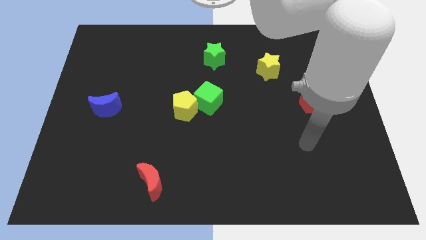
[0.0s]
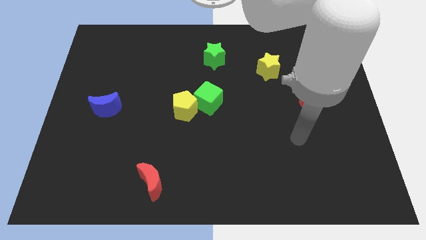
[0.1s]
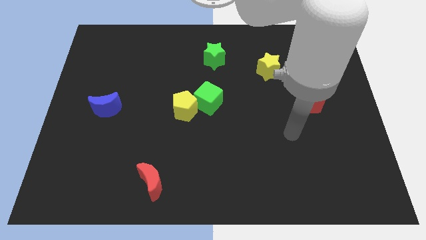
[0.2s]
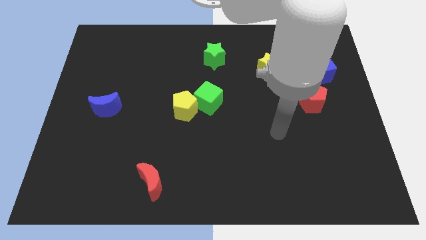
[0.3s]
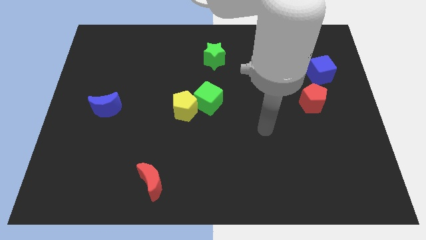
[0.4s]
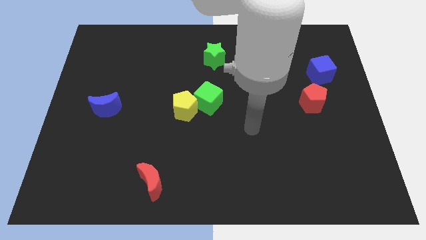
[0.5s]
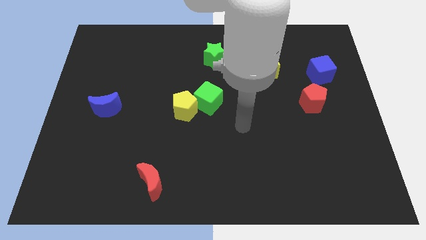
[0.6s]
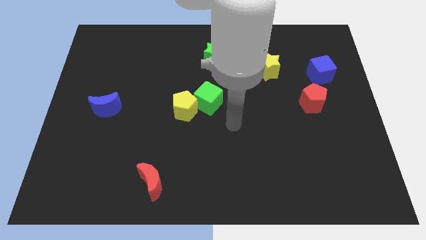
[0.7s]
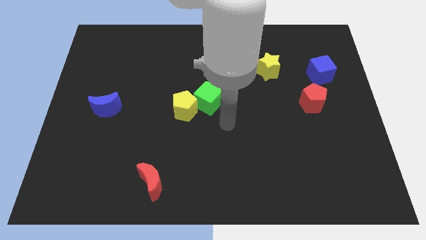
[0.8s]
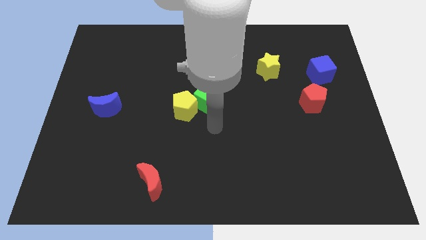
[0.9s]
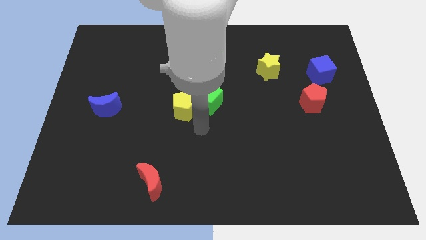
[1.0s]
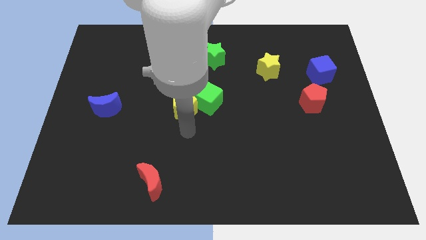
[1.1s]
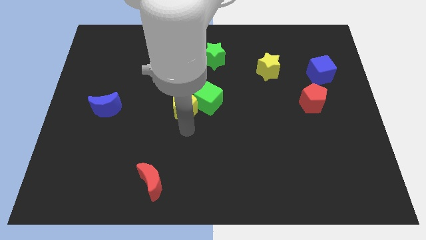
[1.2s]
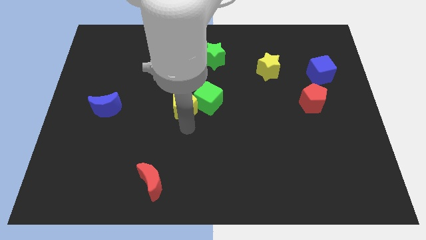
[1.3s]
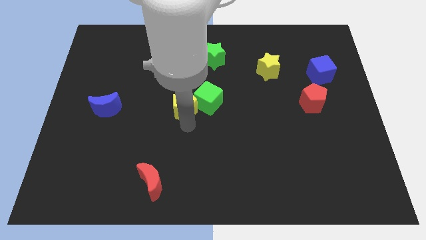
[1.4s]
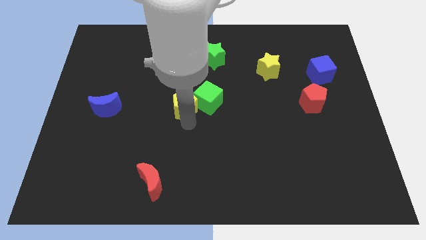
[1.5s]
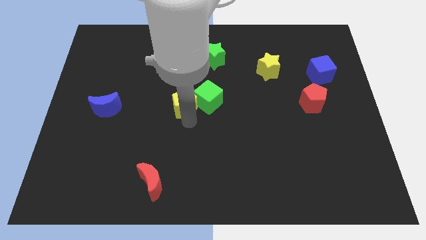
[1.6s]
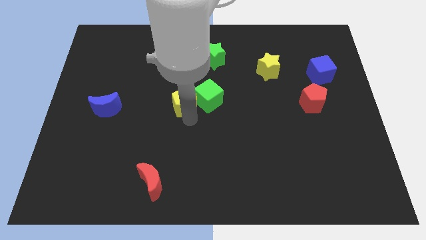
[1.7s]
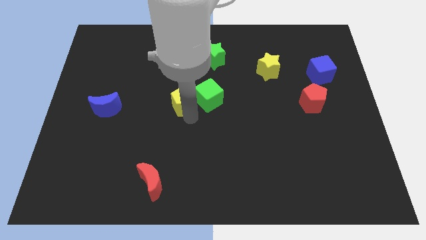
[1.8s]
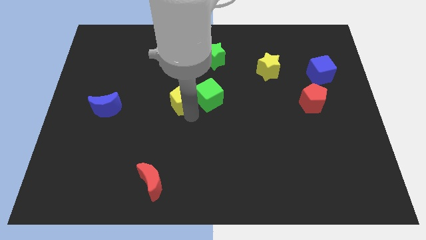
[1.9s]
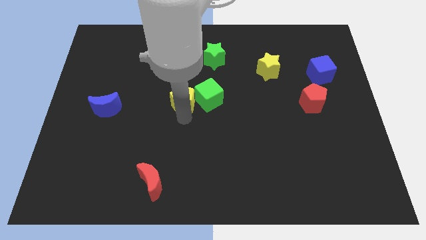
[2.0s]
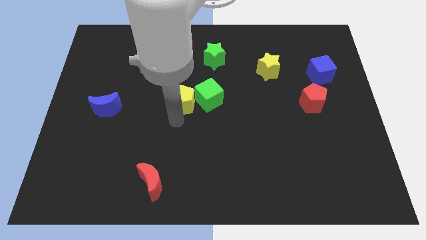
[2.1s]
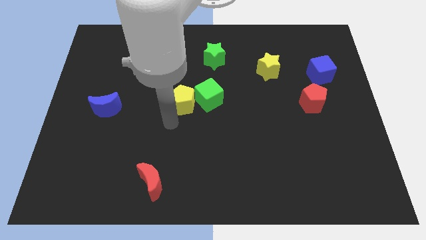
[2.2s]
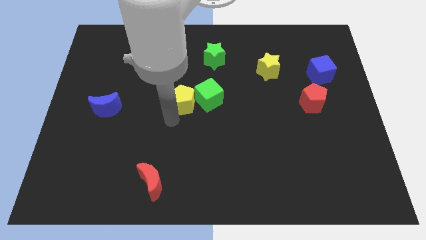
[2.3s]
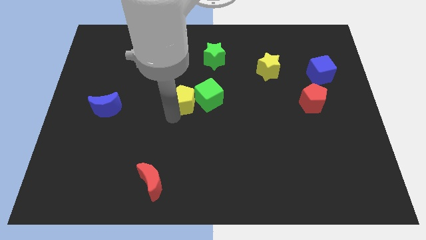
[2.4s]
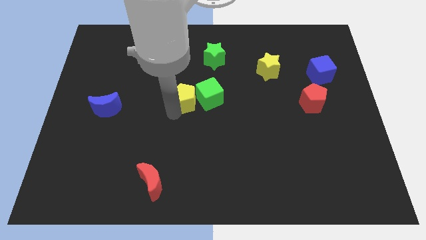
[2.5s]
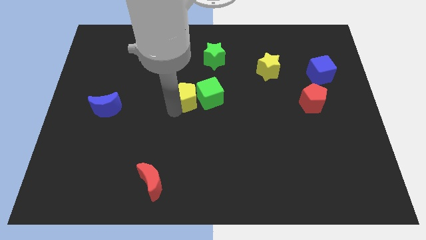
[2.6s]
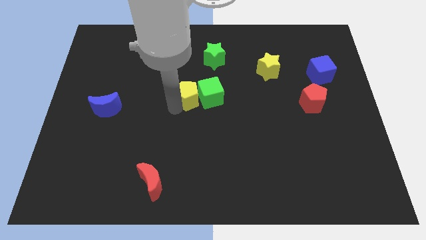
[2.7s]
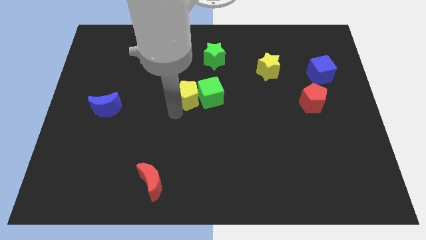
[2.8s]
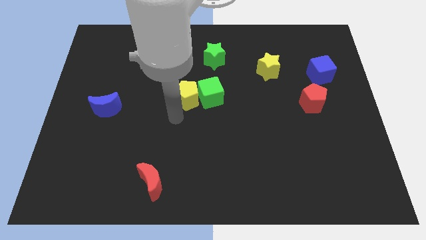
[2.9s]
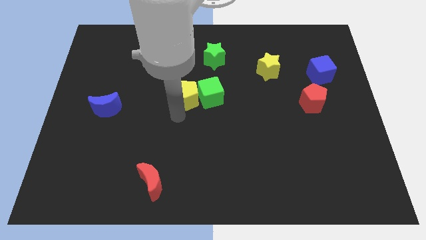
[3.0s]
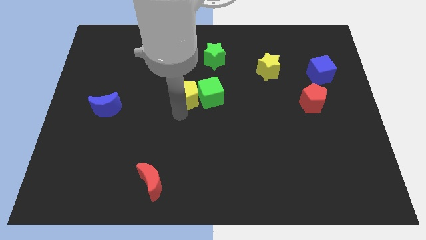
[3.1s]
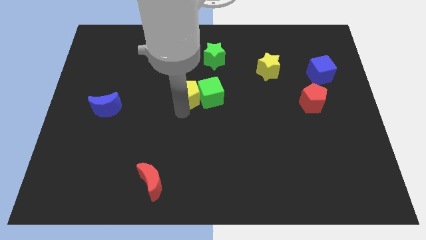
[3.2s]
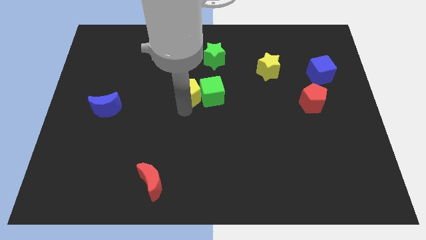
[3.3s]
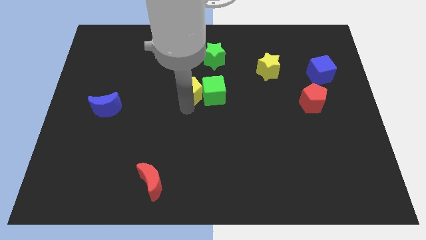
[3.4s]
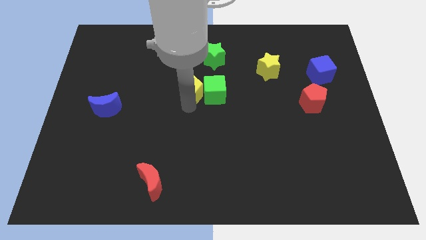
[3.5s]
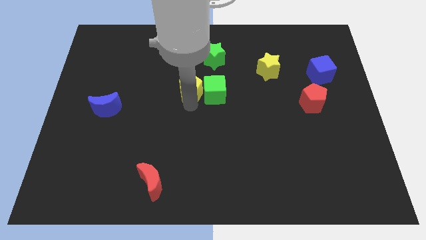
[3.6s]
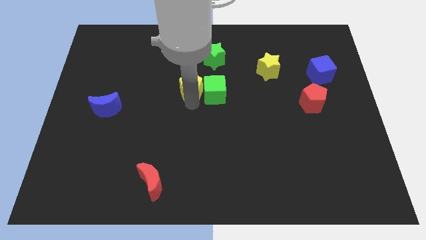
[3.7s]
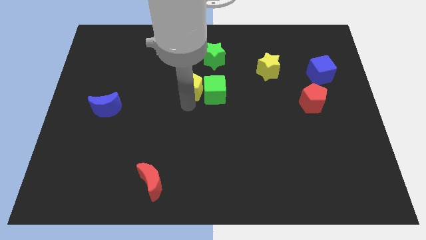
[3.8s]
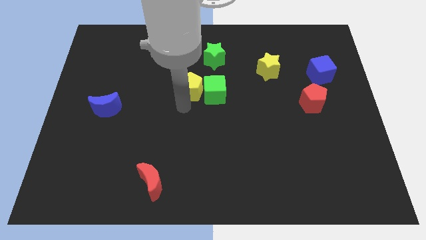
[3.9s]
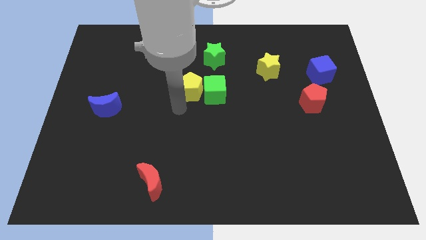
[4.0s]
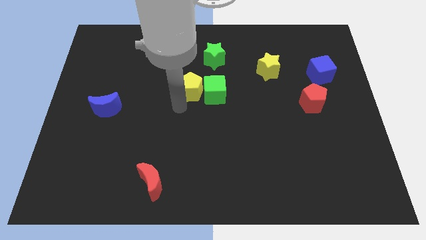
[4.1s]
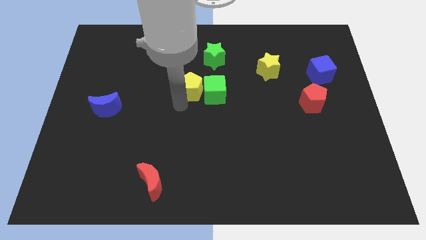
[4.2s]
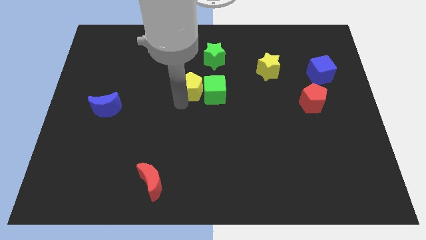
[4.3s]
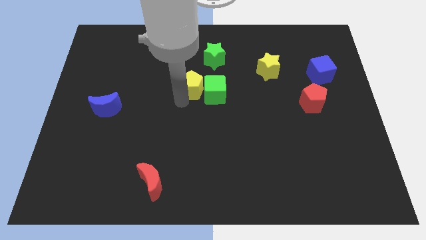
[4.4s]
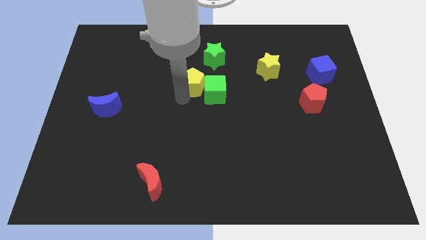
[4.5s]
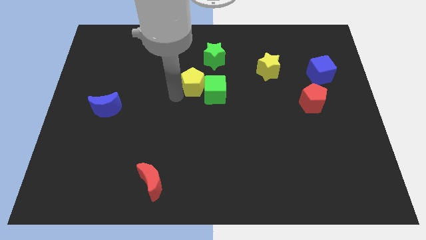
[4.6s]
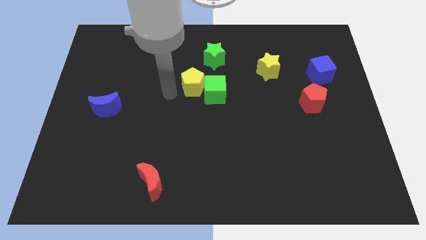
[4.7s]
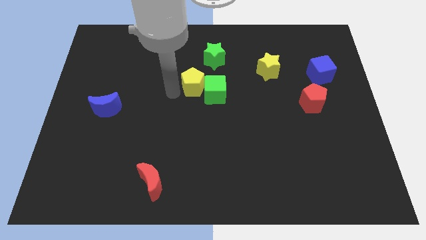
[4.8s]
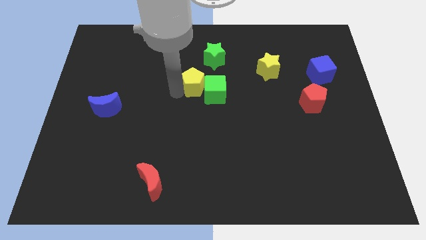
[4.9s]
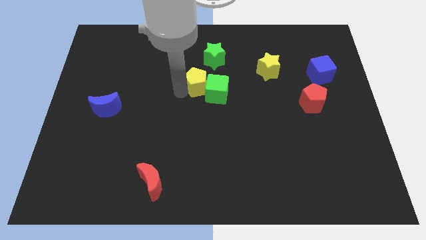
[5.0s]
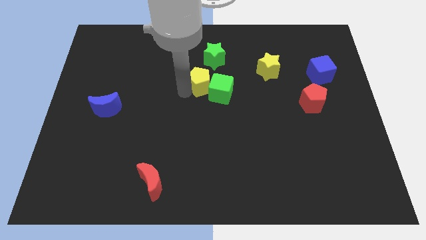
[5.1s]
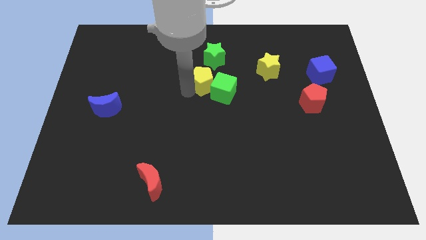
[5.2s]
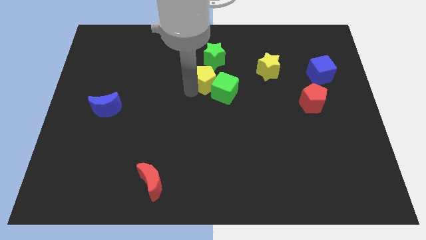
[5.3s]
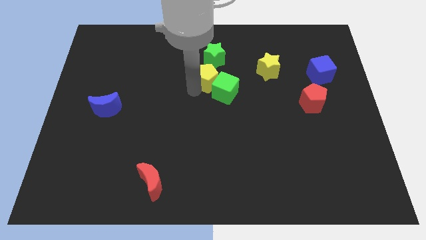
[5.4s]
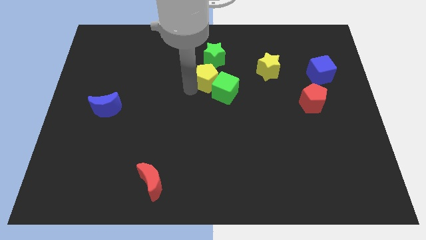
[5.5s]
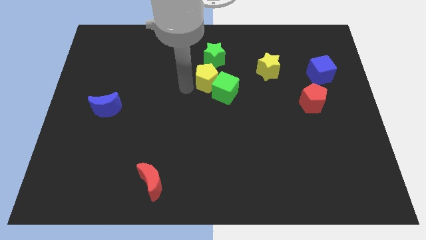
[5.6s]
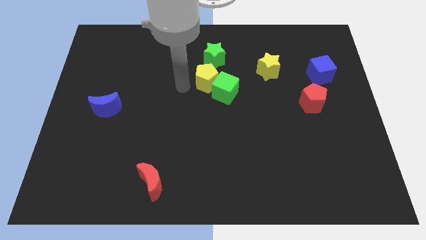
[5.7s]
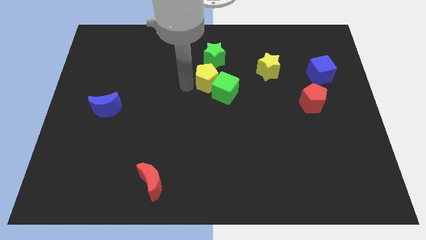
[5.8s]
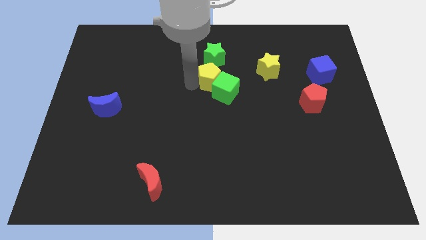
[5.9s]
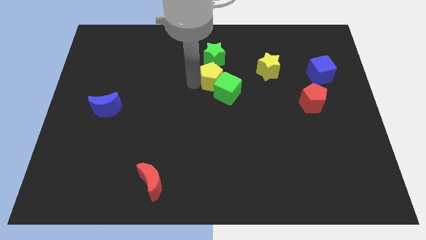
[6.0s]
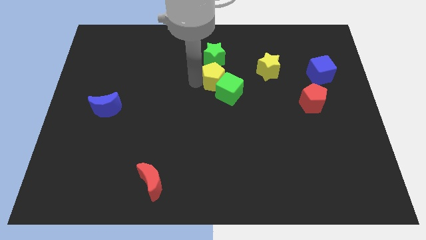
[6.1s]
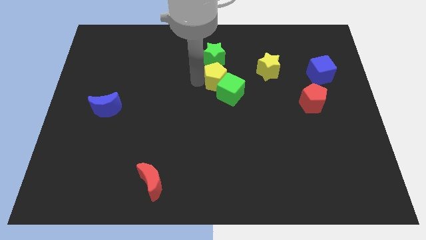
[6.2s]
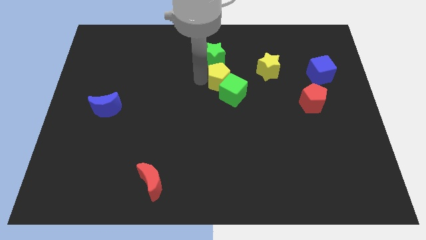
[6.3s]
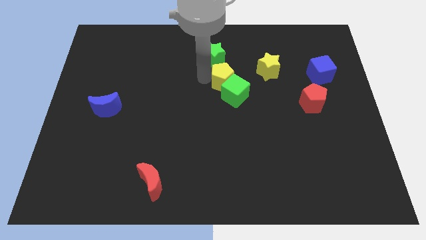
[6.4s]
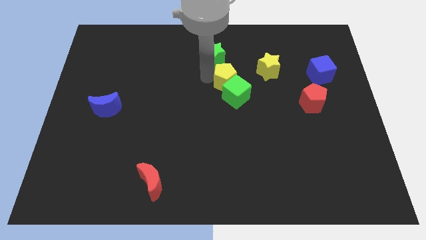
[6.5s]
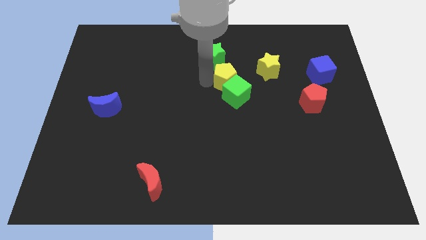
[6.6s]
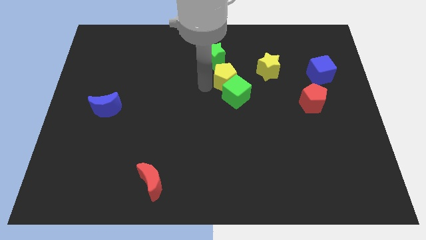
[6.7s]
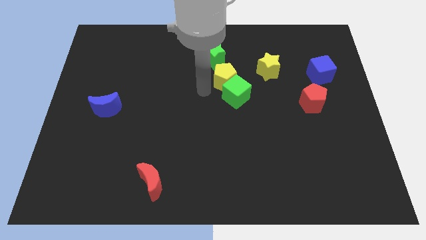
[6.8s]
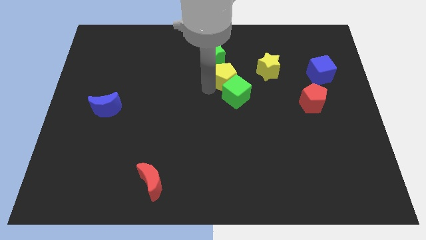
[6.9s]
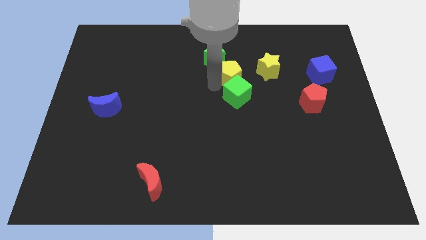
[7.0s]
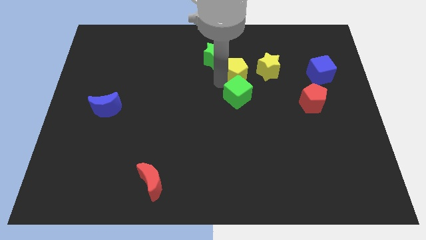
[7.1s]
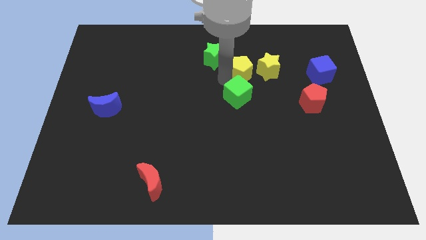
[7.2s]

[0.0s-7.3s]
slide the yellow pentagon to the right side of the green star
